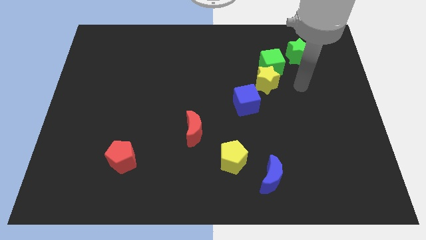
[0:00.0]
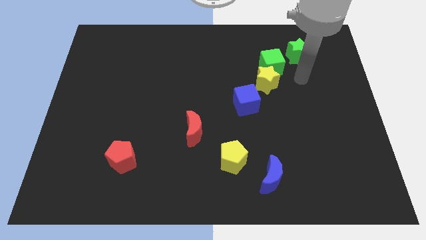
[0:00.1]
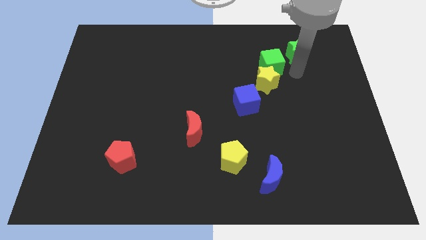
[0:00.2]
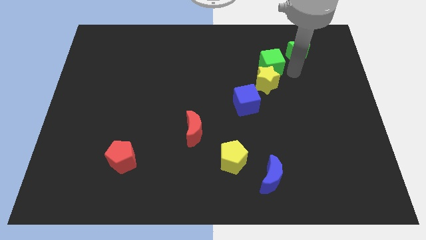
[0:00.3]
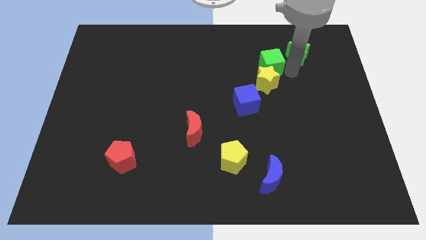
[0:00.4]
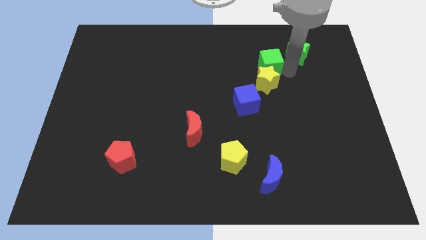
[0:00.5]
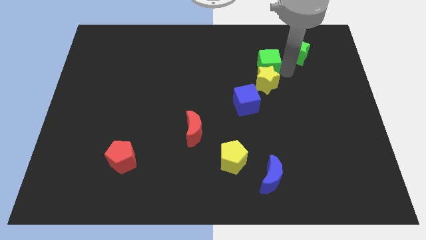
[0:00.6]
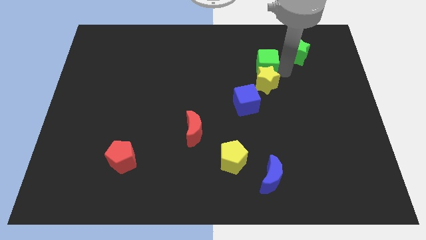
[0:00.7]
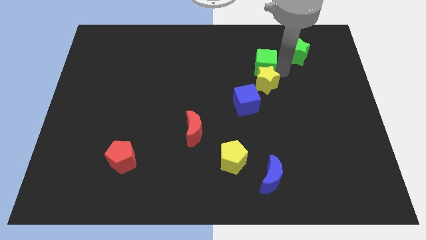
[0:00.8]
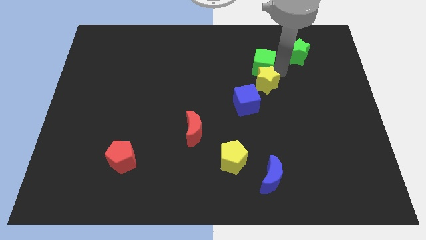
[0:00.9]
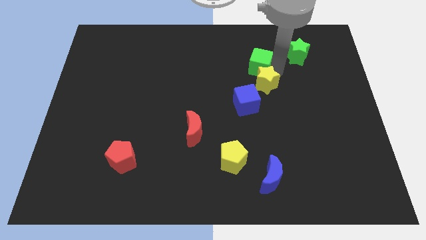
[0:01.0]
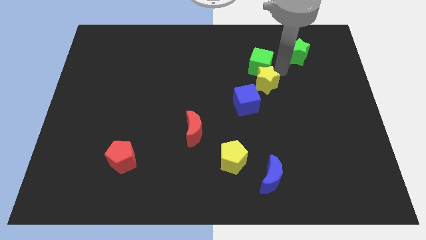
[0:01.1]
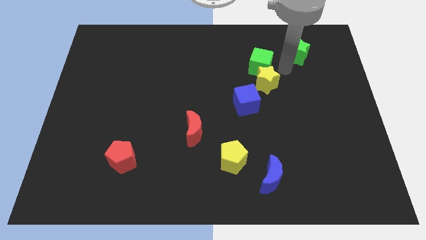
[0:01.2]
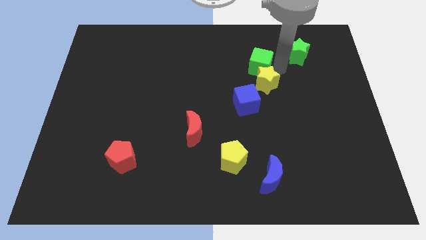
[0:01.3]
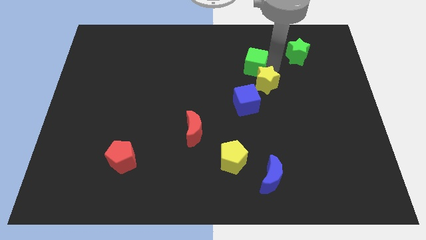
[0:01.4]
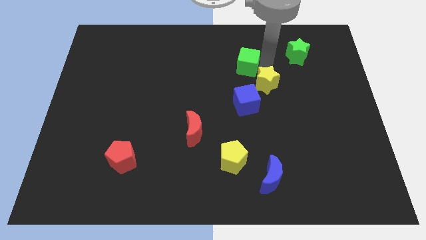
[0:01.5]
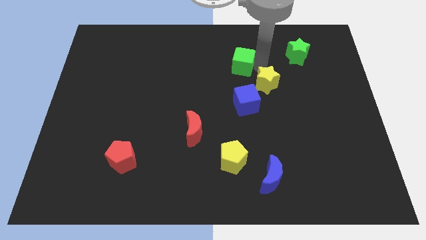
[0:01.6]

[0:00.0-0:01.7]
move the green cube away from the yellow star and green star

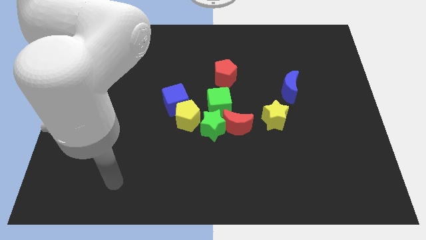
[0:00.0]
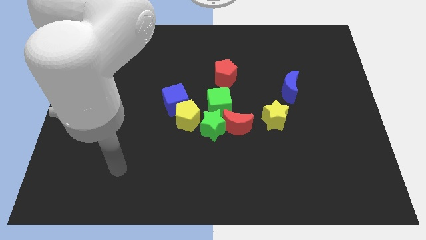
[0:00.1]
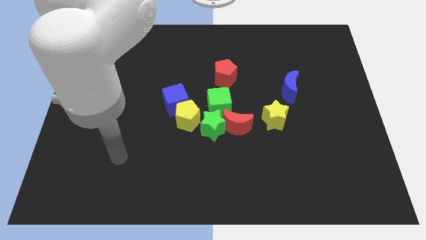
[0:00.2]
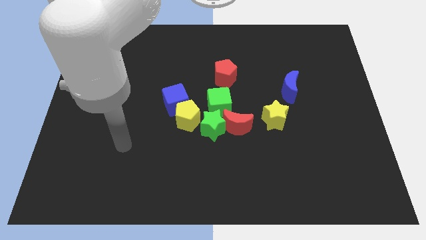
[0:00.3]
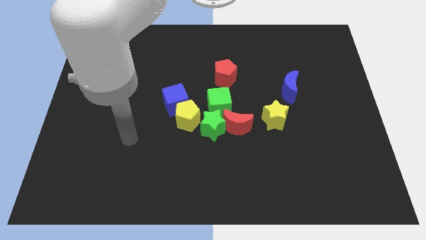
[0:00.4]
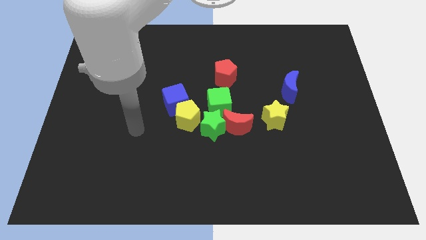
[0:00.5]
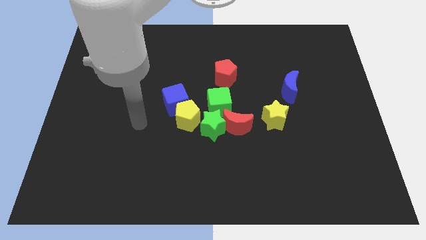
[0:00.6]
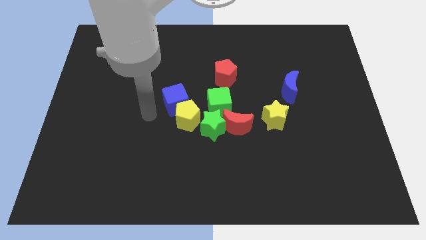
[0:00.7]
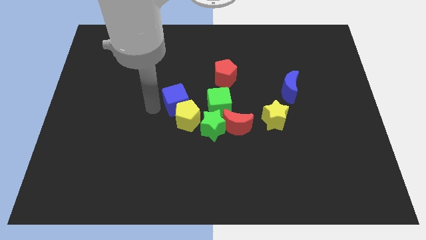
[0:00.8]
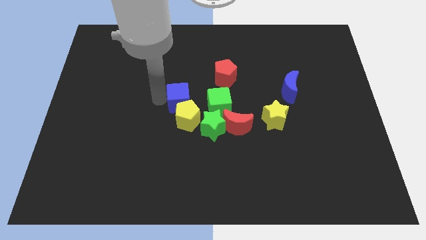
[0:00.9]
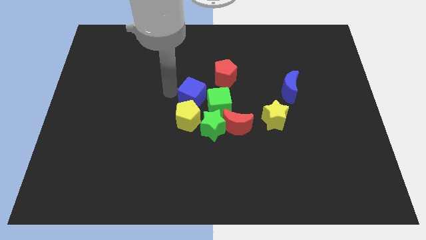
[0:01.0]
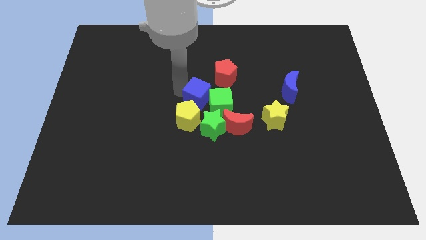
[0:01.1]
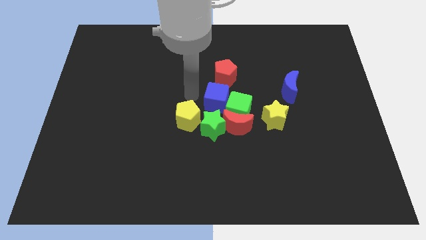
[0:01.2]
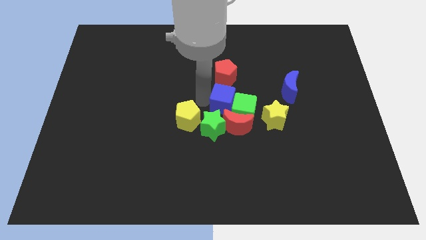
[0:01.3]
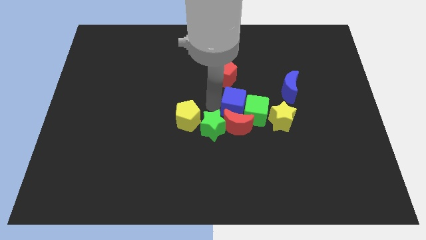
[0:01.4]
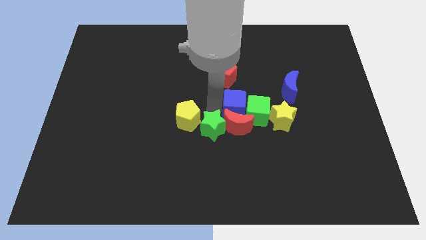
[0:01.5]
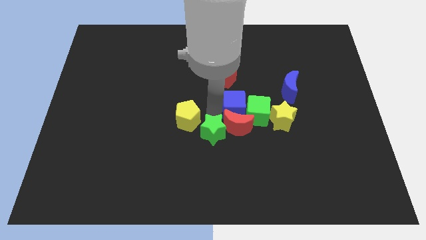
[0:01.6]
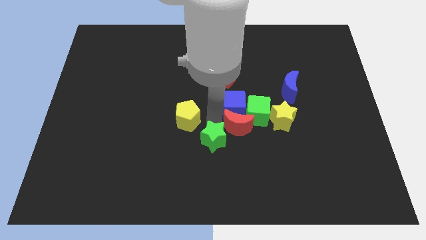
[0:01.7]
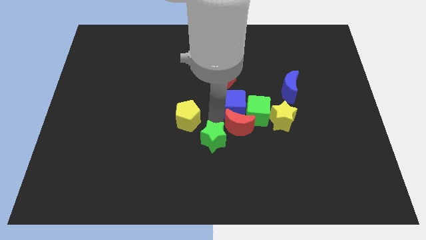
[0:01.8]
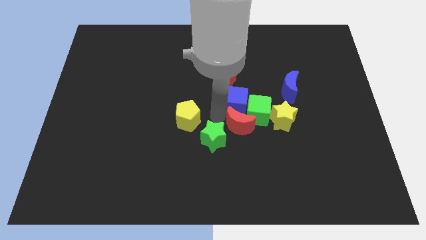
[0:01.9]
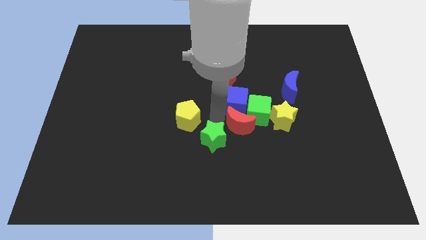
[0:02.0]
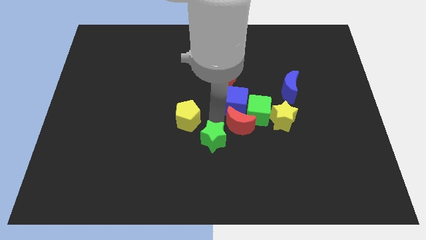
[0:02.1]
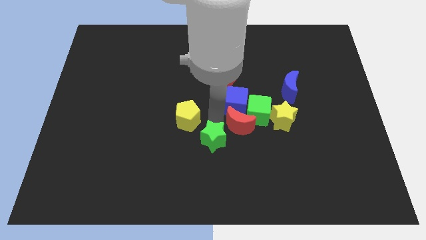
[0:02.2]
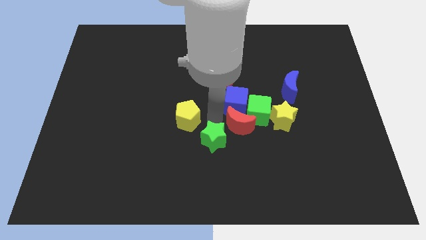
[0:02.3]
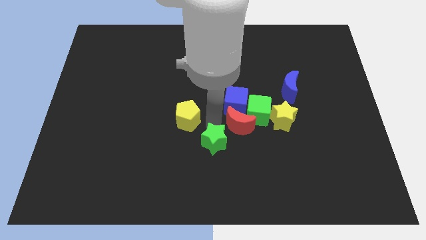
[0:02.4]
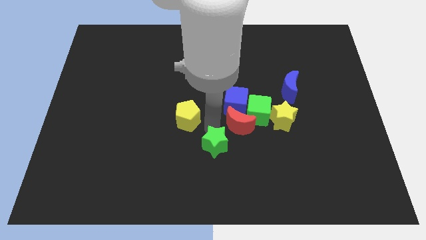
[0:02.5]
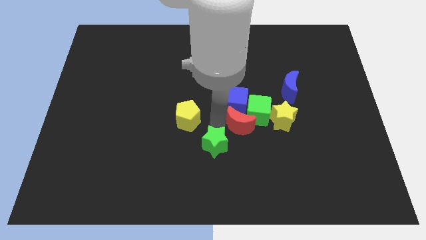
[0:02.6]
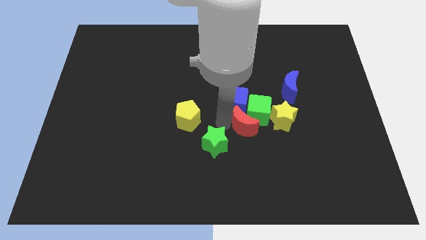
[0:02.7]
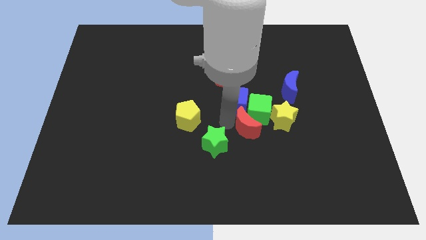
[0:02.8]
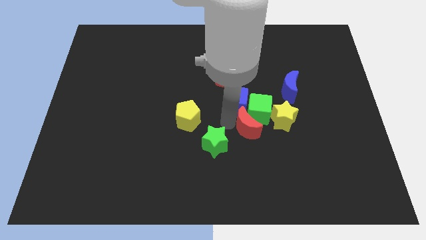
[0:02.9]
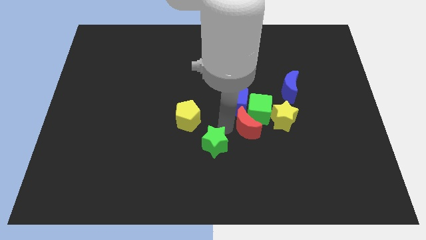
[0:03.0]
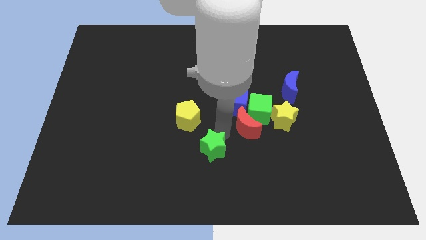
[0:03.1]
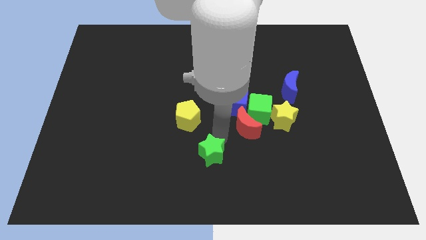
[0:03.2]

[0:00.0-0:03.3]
pull the green star apart from the red moon, green cube, and yellow pentagon

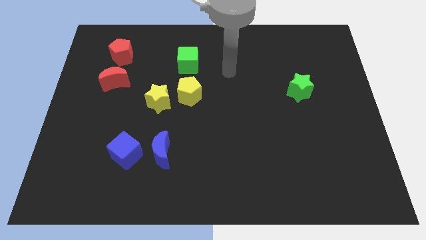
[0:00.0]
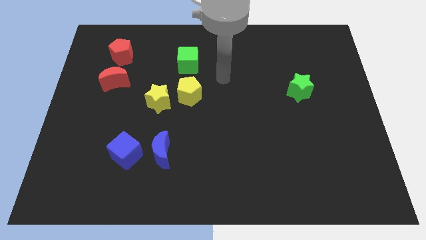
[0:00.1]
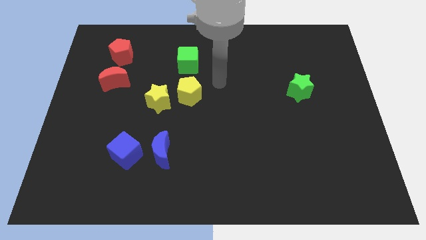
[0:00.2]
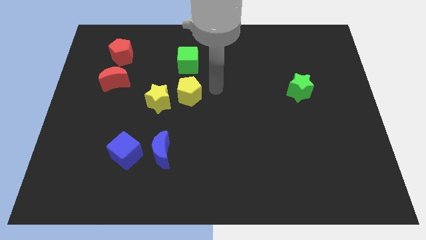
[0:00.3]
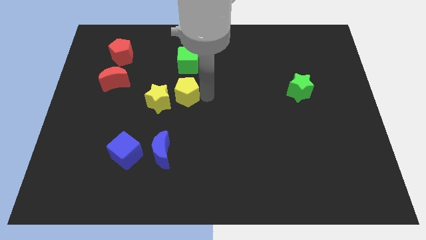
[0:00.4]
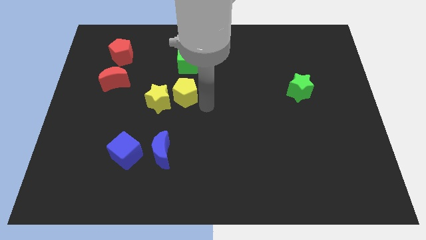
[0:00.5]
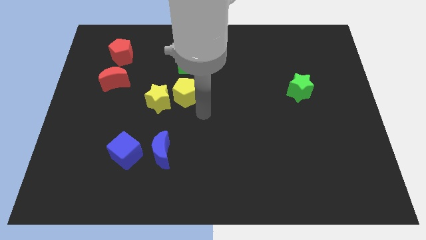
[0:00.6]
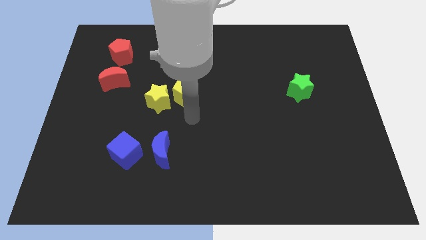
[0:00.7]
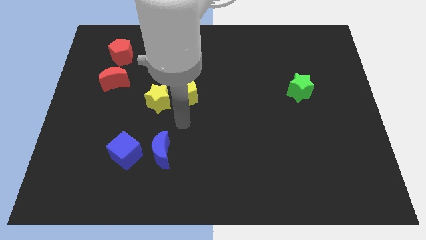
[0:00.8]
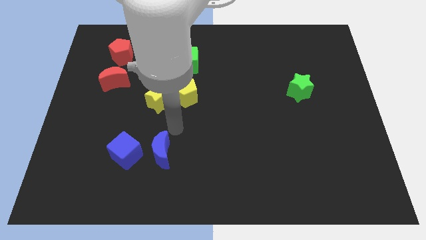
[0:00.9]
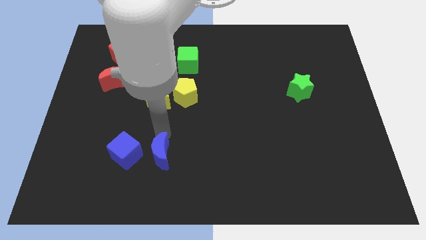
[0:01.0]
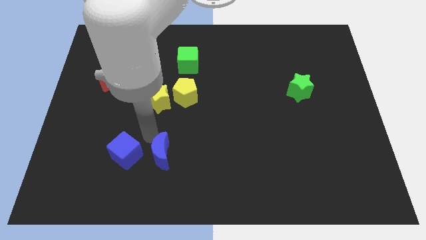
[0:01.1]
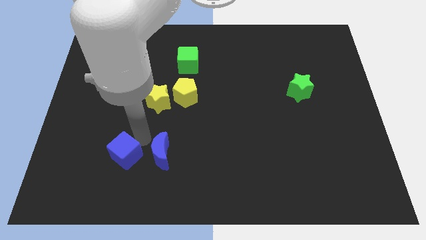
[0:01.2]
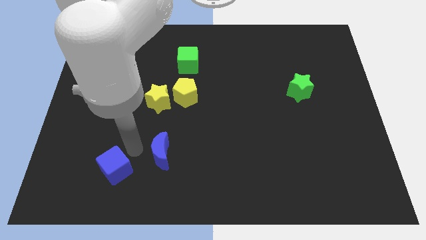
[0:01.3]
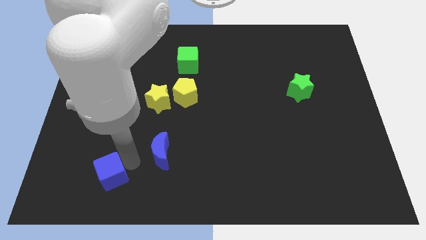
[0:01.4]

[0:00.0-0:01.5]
separate the blue moon from the blue cube

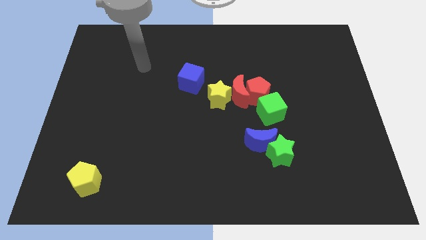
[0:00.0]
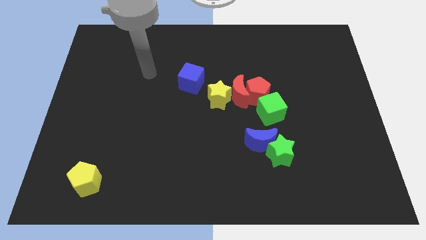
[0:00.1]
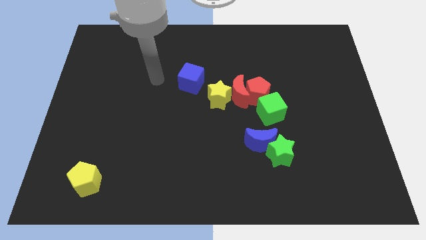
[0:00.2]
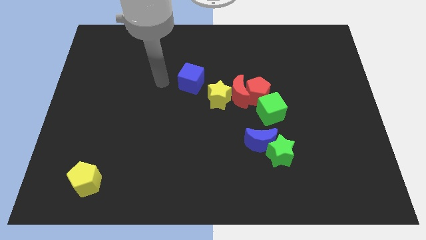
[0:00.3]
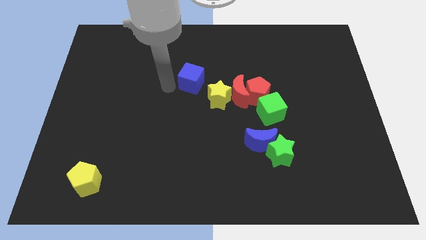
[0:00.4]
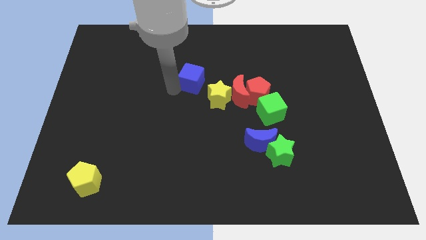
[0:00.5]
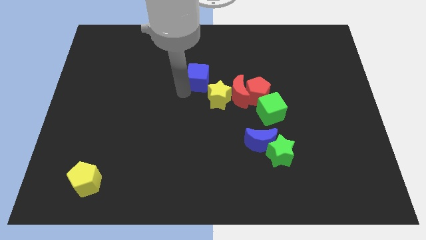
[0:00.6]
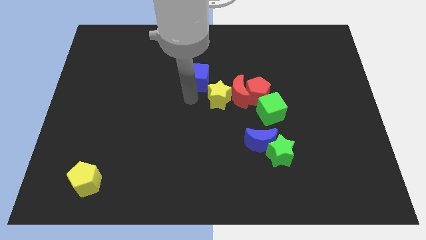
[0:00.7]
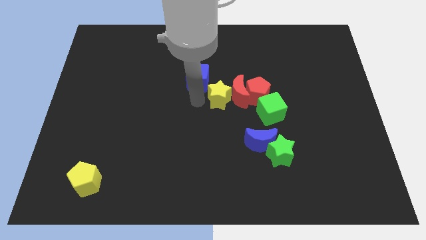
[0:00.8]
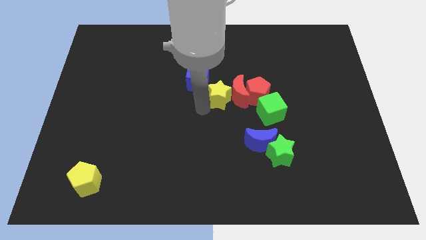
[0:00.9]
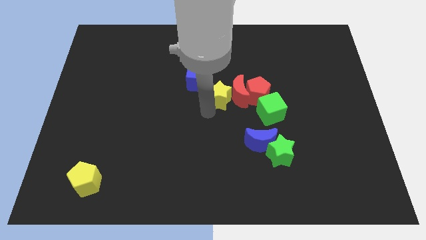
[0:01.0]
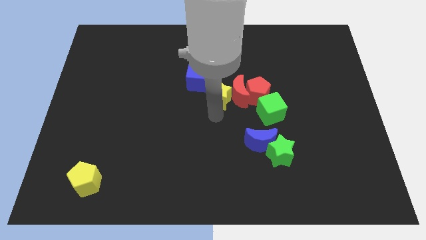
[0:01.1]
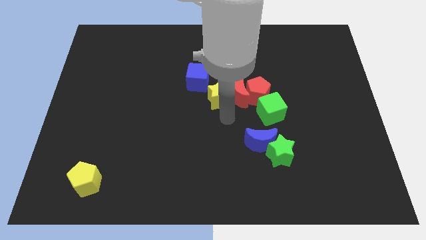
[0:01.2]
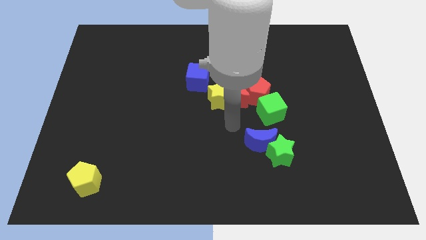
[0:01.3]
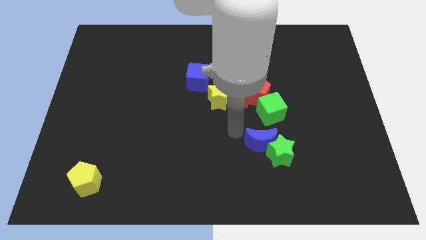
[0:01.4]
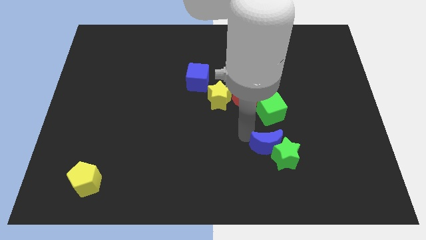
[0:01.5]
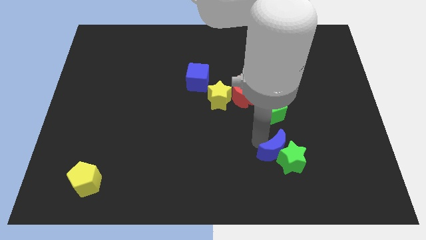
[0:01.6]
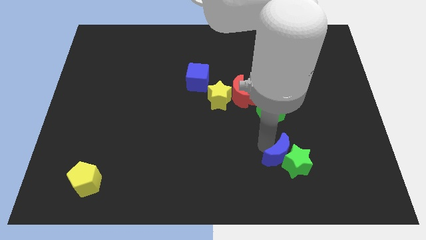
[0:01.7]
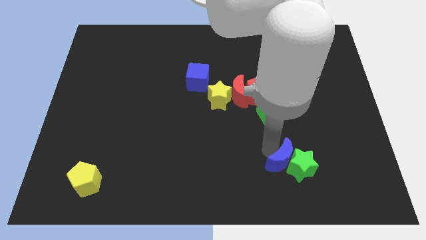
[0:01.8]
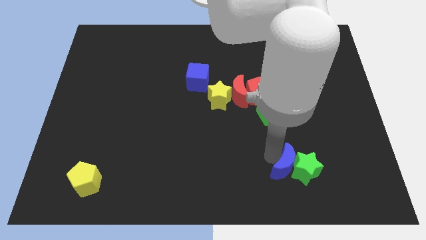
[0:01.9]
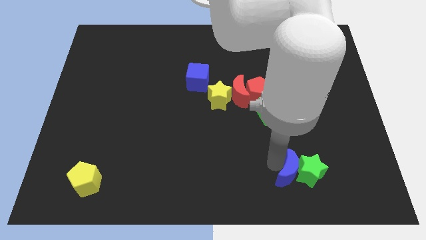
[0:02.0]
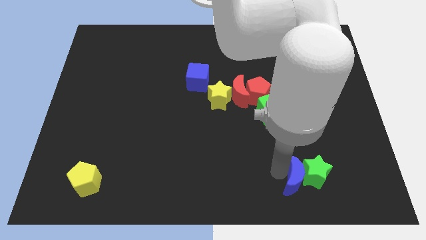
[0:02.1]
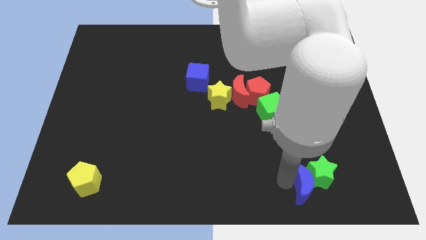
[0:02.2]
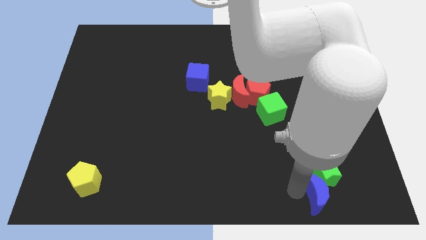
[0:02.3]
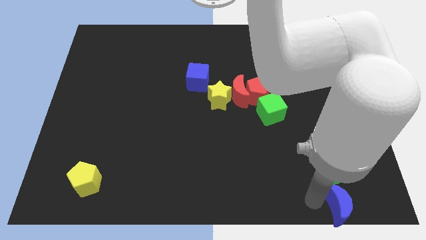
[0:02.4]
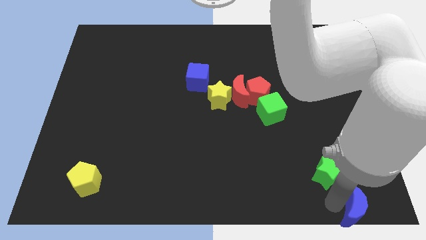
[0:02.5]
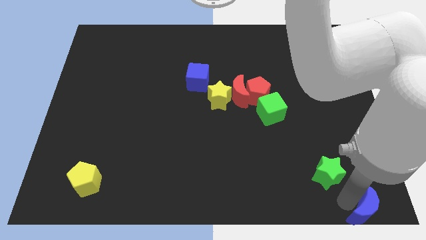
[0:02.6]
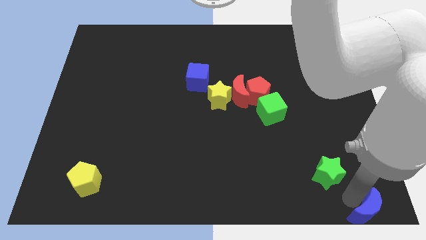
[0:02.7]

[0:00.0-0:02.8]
move the green star away from the blue moon

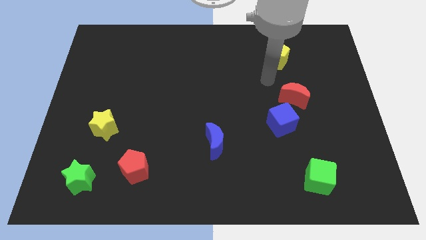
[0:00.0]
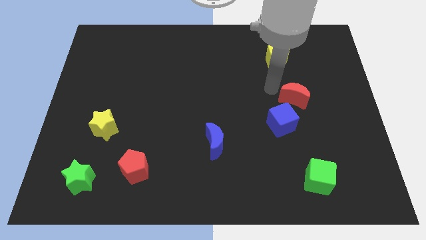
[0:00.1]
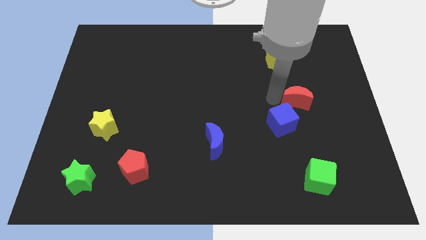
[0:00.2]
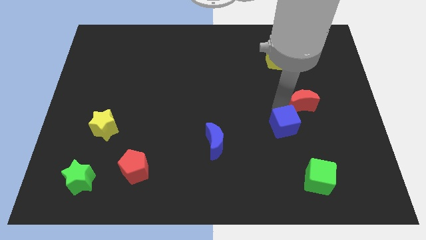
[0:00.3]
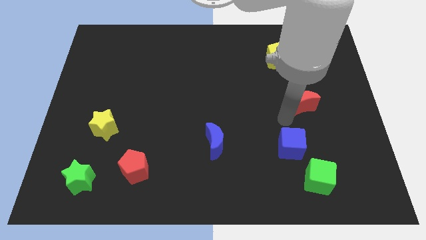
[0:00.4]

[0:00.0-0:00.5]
pull the red moon apart from the blue cube
